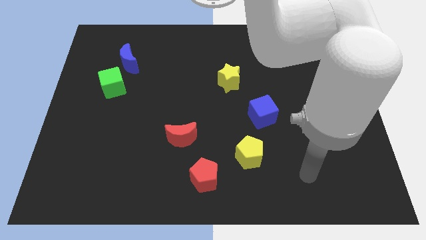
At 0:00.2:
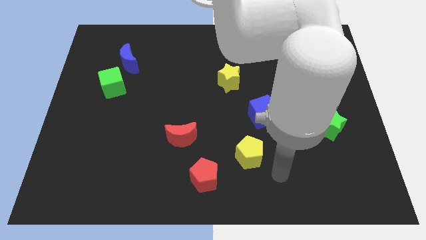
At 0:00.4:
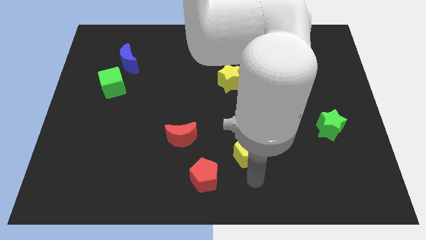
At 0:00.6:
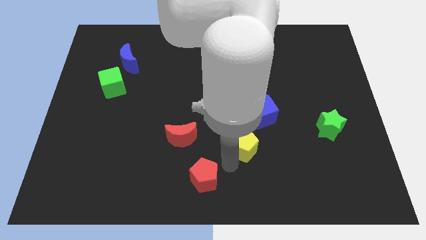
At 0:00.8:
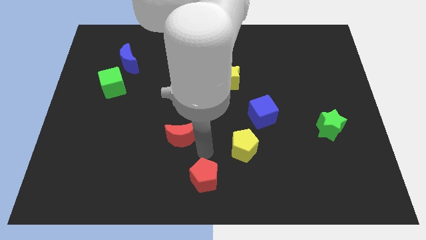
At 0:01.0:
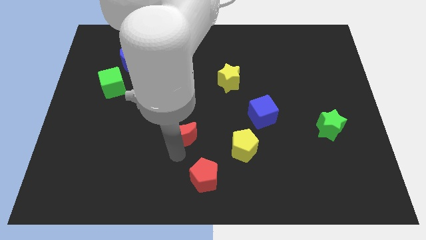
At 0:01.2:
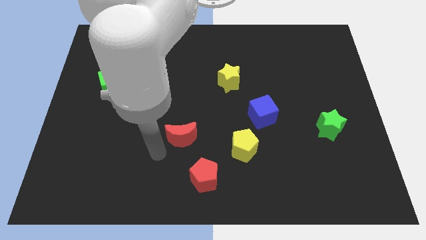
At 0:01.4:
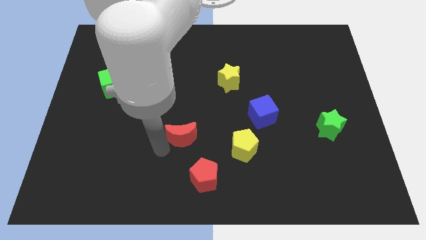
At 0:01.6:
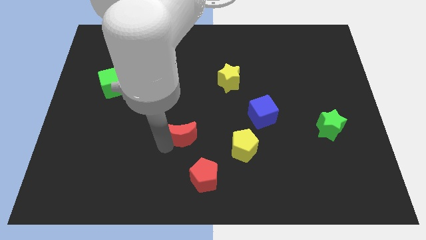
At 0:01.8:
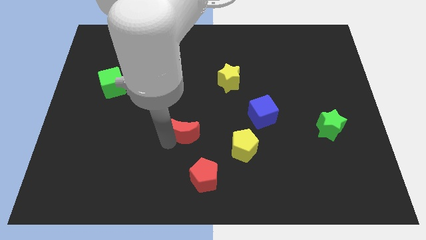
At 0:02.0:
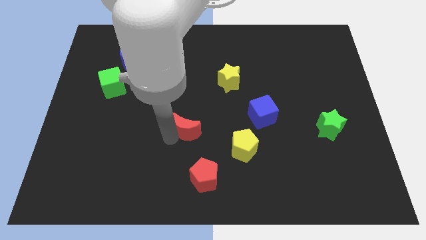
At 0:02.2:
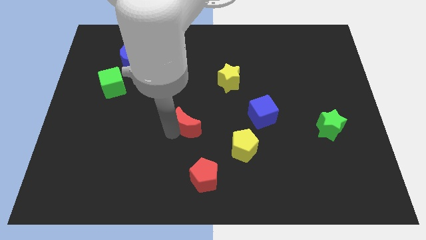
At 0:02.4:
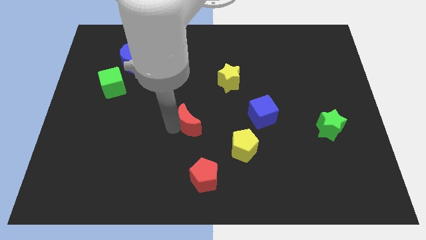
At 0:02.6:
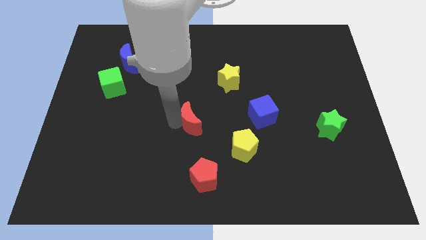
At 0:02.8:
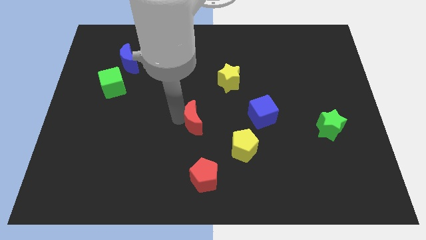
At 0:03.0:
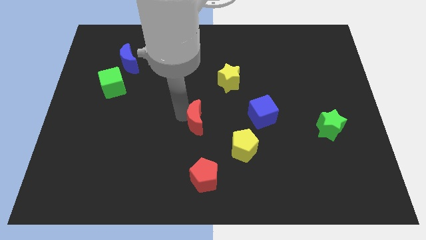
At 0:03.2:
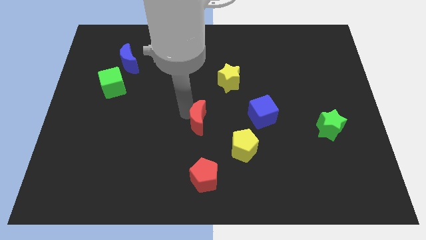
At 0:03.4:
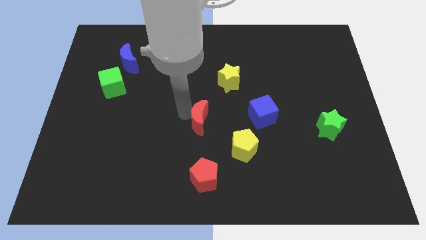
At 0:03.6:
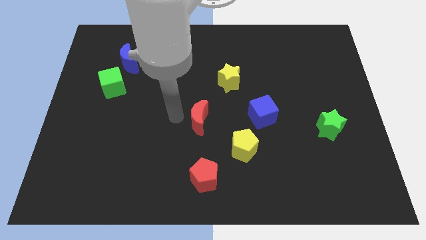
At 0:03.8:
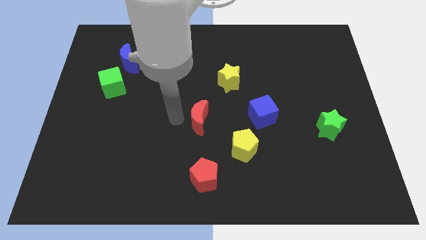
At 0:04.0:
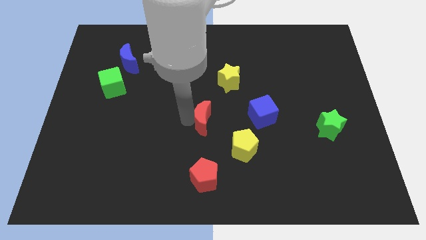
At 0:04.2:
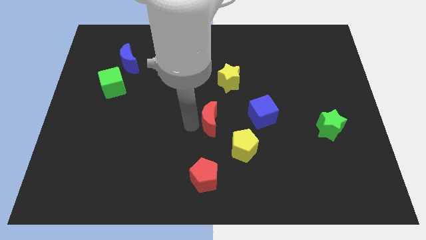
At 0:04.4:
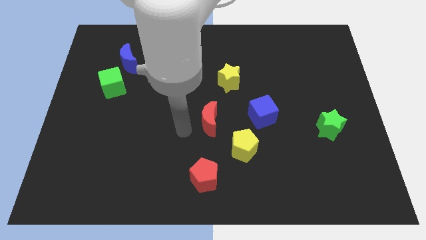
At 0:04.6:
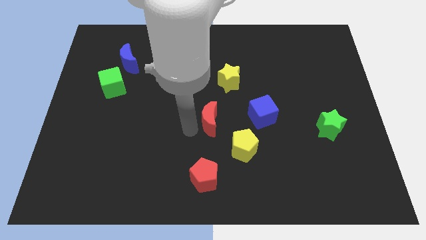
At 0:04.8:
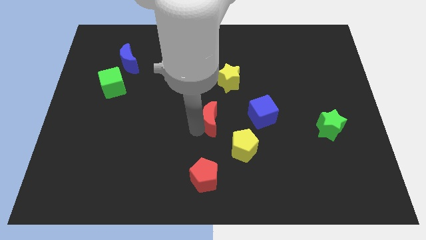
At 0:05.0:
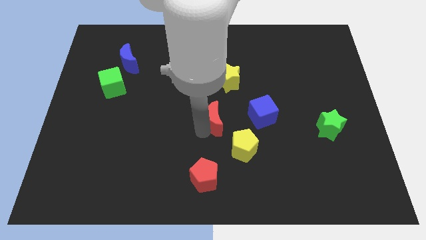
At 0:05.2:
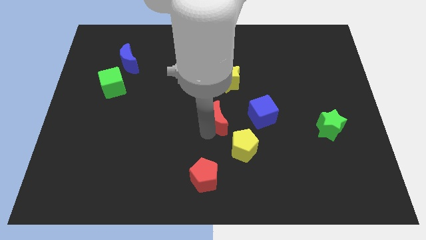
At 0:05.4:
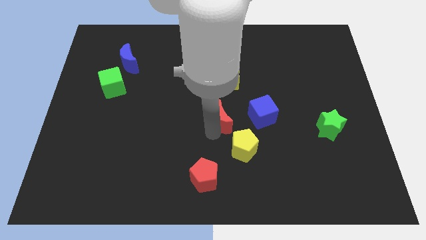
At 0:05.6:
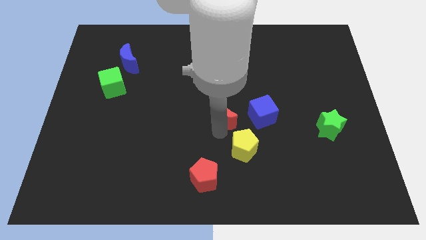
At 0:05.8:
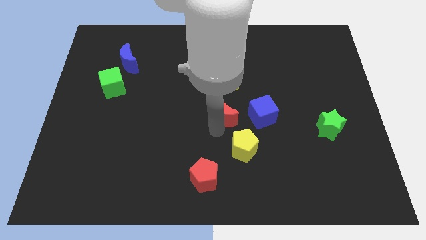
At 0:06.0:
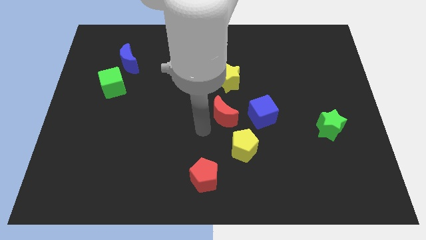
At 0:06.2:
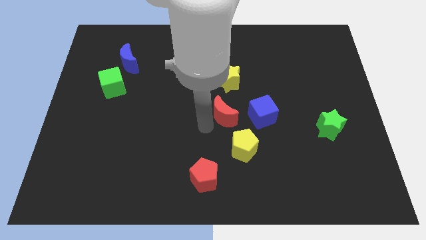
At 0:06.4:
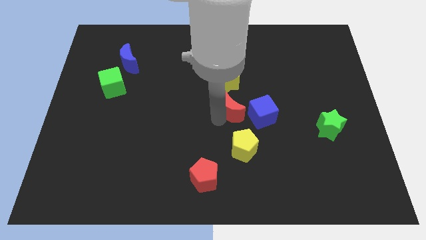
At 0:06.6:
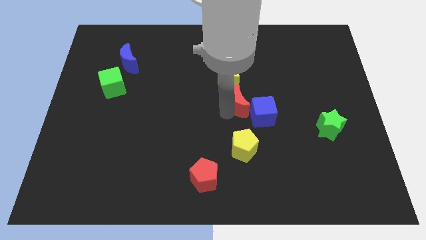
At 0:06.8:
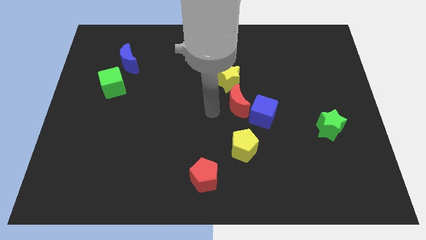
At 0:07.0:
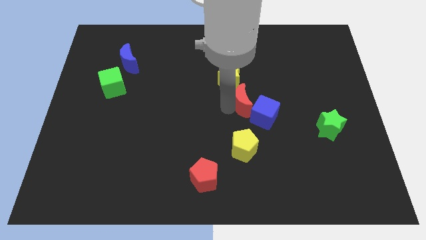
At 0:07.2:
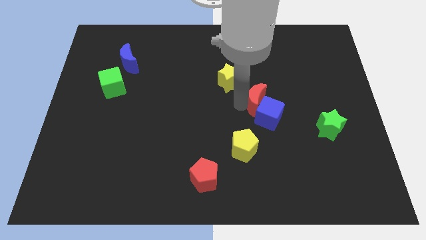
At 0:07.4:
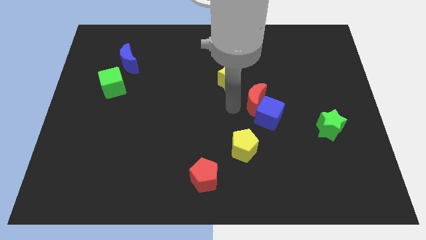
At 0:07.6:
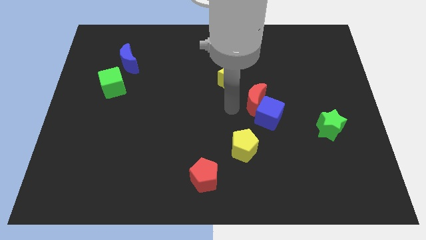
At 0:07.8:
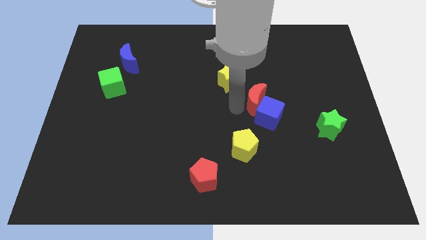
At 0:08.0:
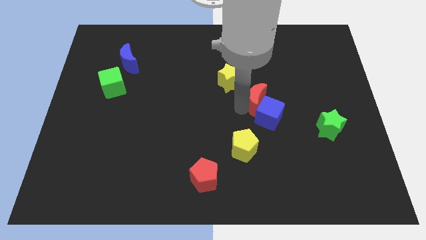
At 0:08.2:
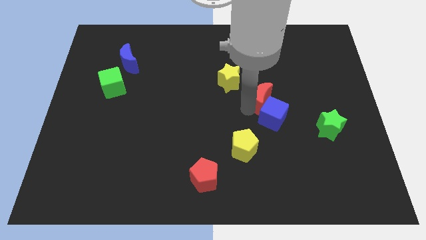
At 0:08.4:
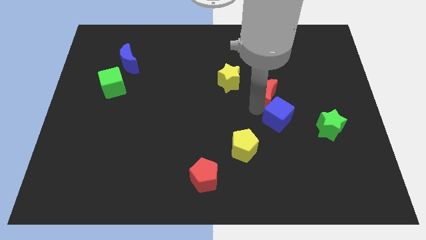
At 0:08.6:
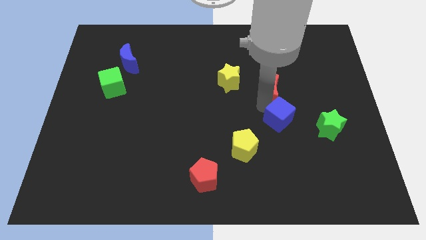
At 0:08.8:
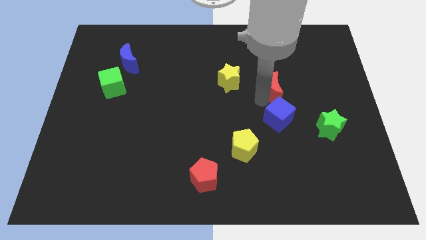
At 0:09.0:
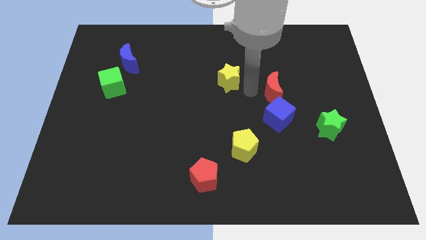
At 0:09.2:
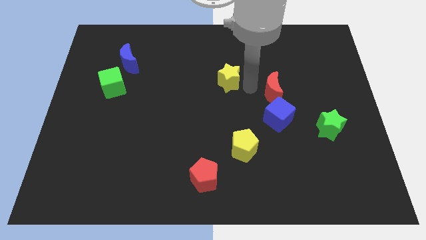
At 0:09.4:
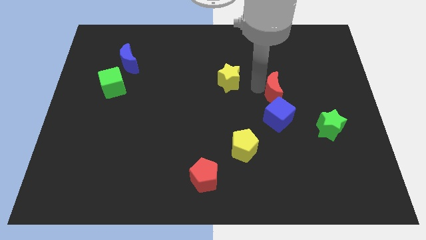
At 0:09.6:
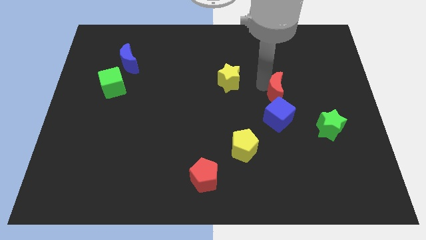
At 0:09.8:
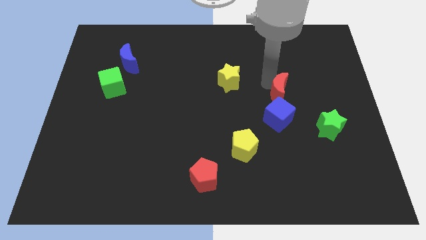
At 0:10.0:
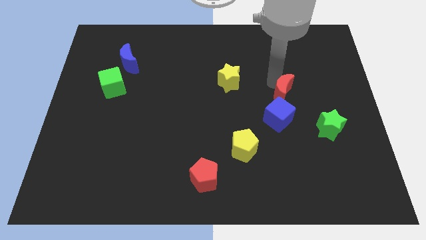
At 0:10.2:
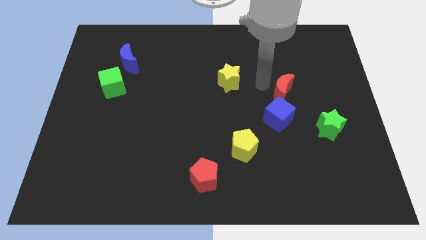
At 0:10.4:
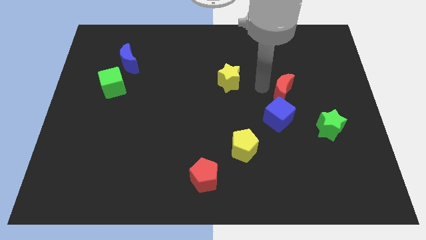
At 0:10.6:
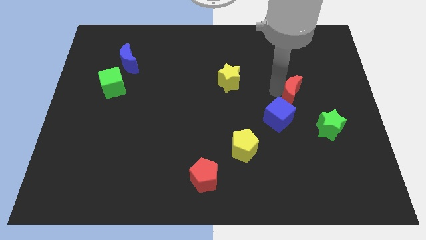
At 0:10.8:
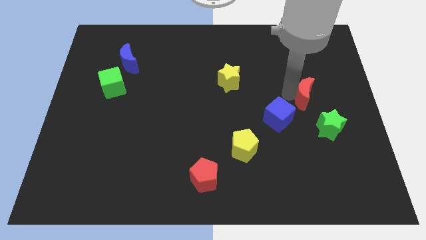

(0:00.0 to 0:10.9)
push the red moon above the green star

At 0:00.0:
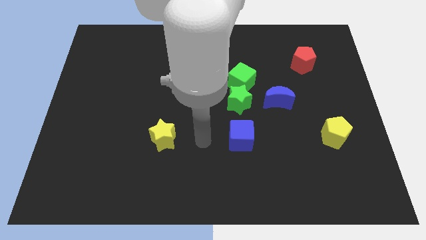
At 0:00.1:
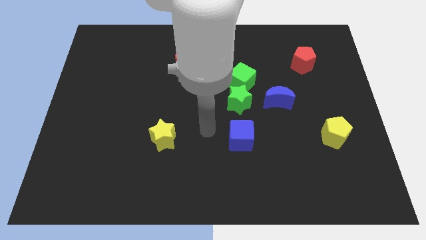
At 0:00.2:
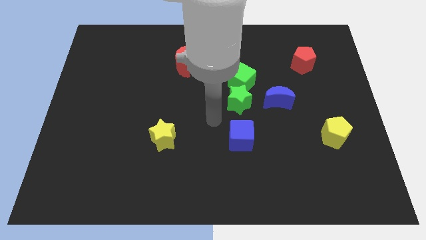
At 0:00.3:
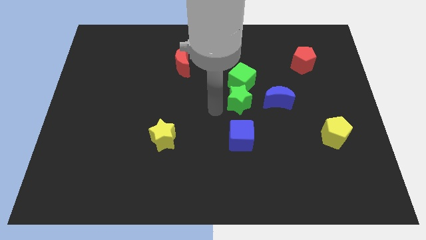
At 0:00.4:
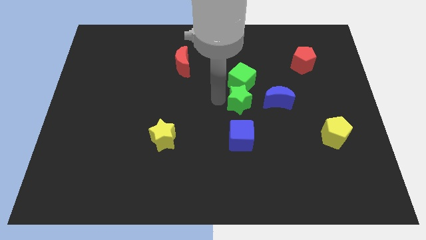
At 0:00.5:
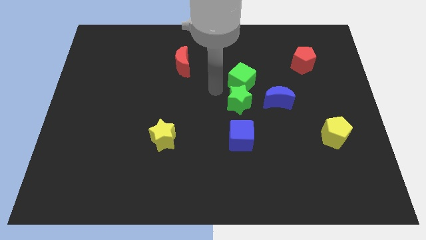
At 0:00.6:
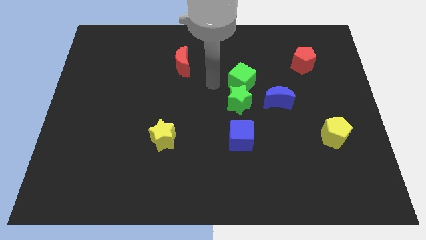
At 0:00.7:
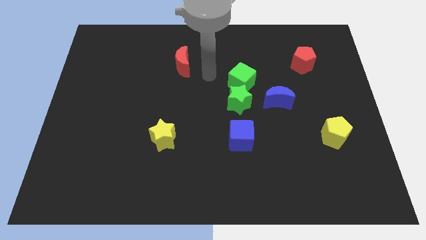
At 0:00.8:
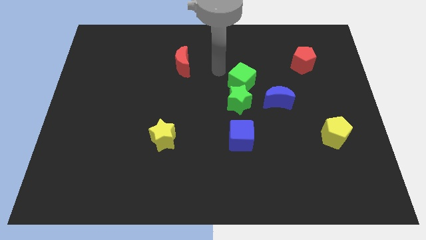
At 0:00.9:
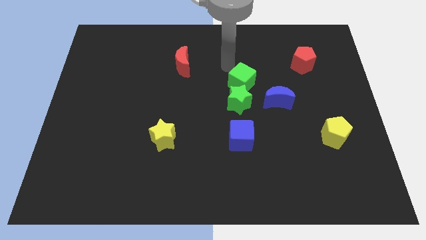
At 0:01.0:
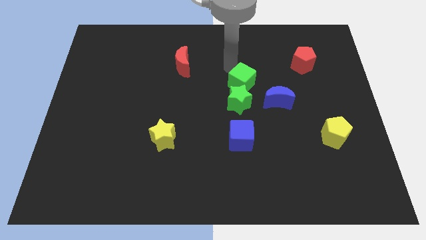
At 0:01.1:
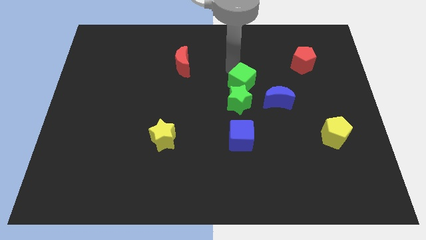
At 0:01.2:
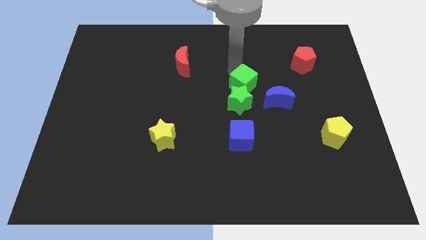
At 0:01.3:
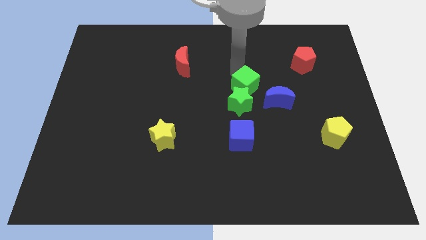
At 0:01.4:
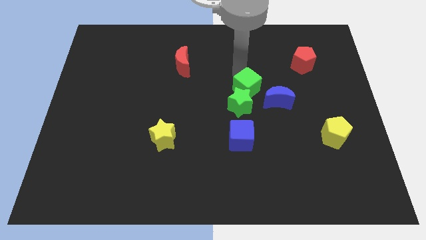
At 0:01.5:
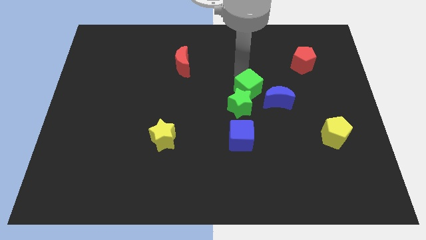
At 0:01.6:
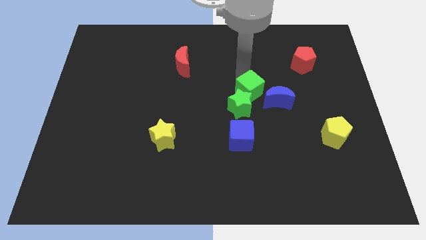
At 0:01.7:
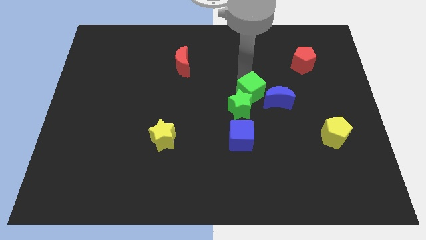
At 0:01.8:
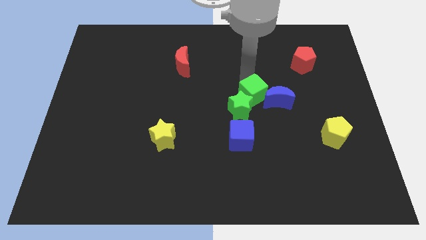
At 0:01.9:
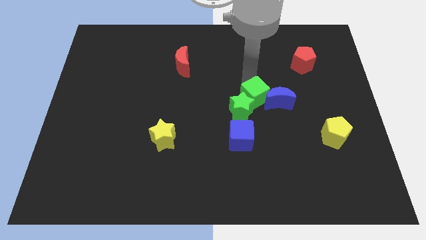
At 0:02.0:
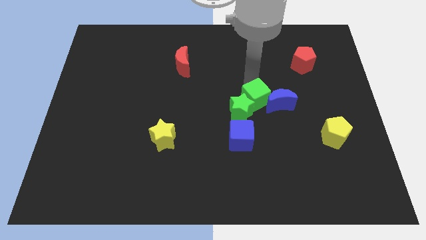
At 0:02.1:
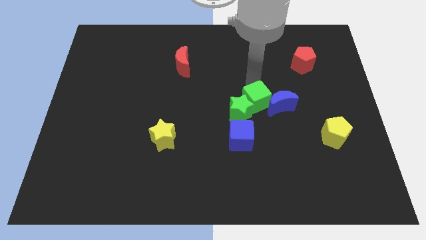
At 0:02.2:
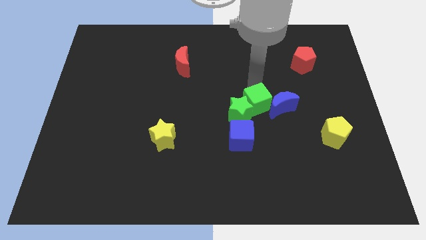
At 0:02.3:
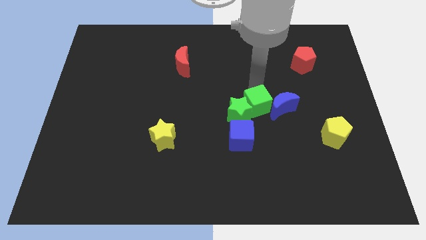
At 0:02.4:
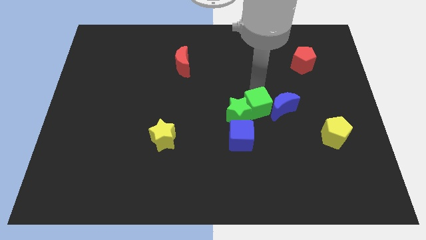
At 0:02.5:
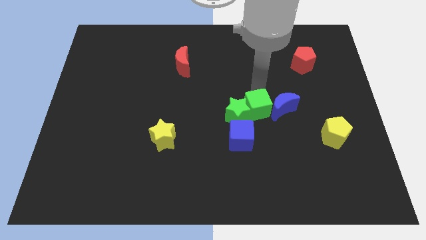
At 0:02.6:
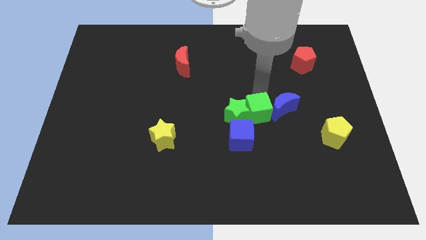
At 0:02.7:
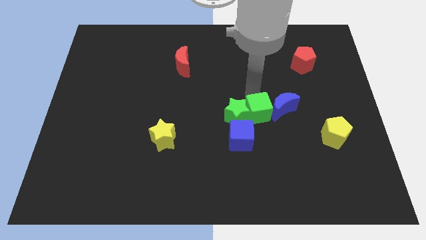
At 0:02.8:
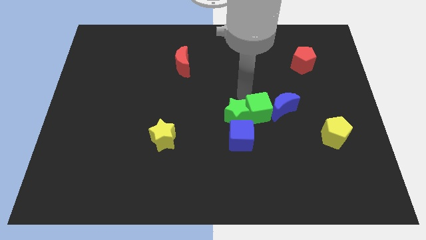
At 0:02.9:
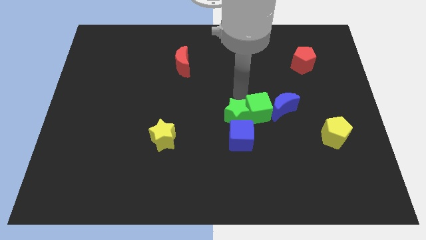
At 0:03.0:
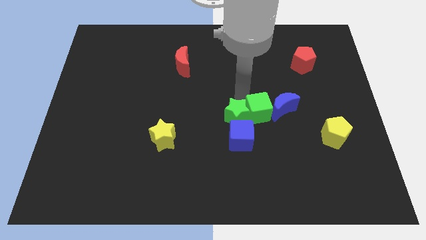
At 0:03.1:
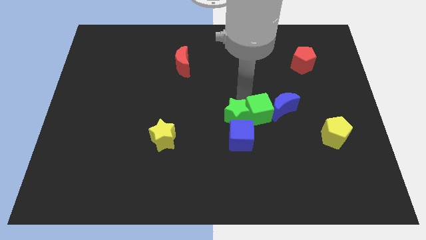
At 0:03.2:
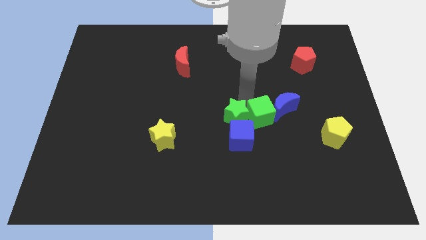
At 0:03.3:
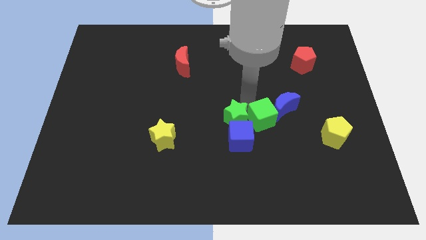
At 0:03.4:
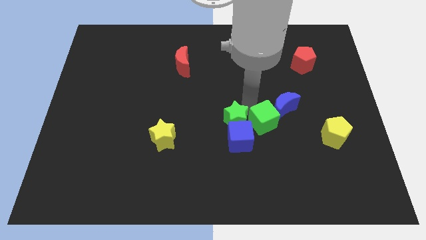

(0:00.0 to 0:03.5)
slide the green cube right of the blue cube
